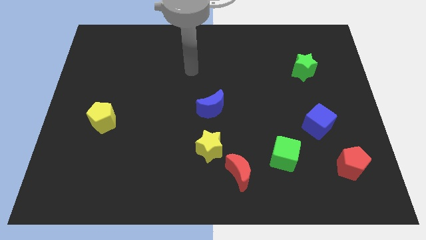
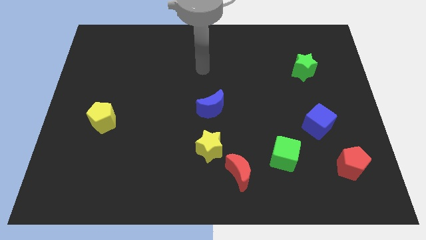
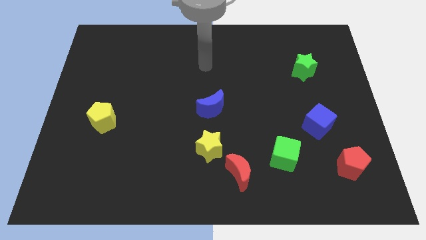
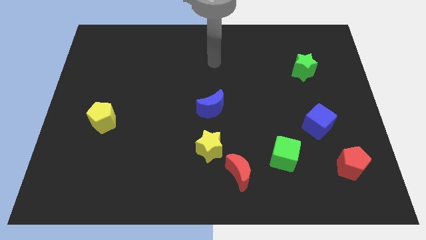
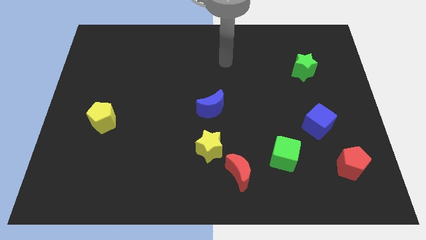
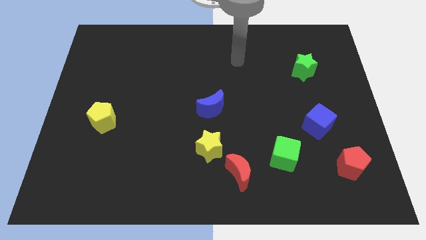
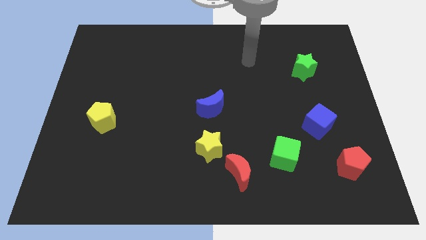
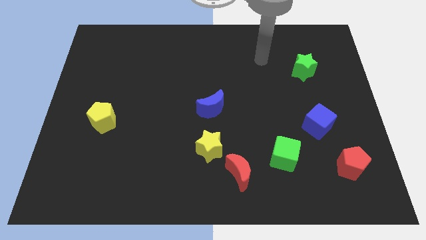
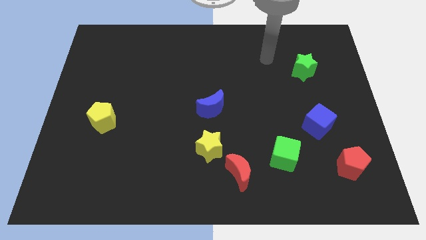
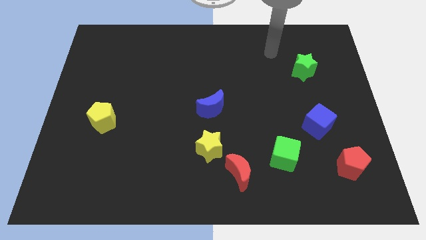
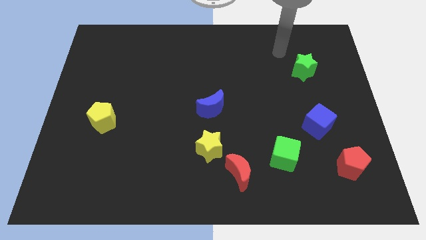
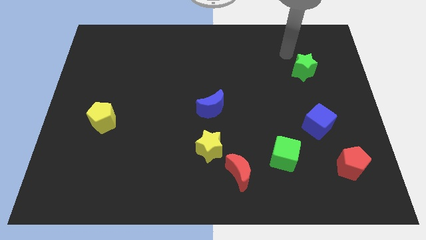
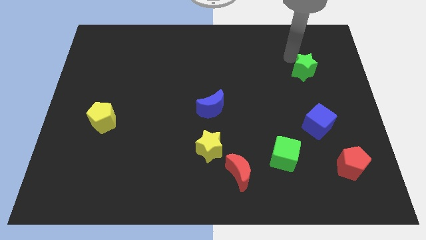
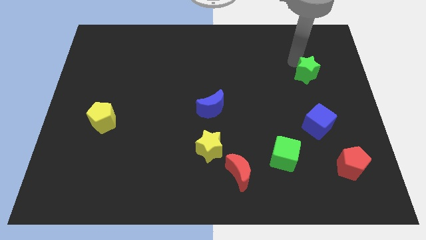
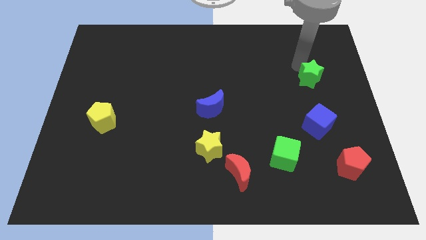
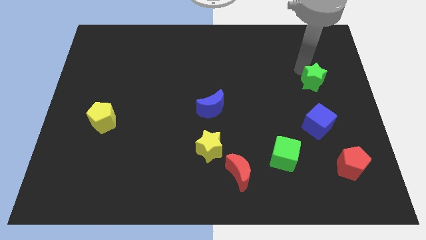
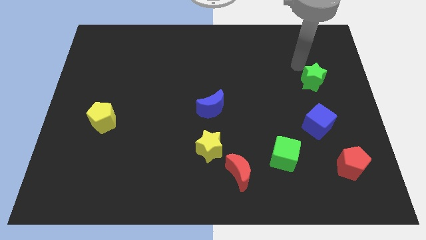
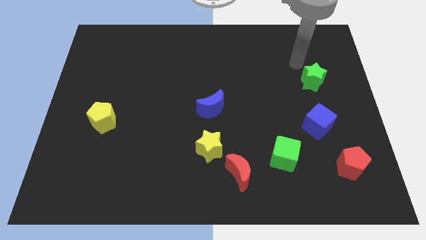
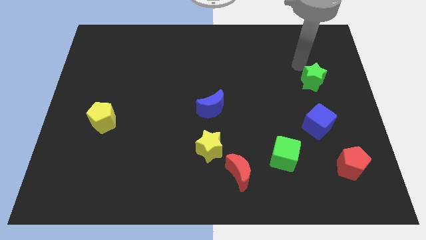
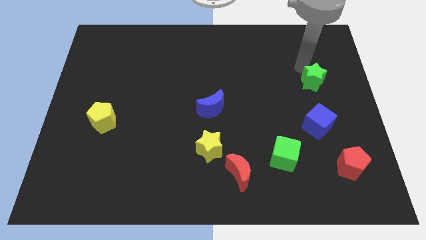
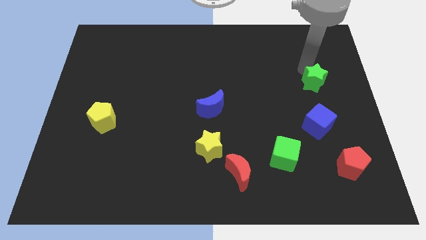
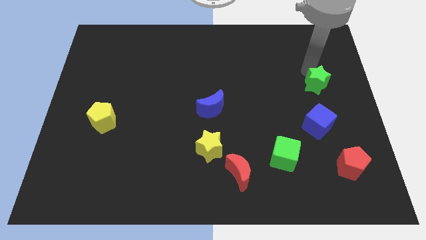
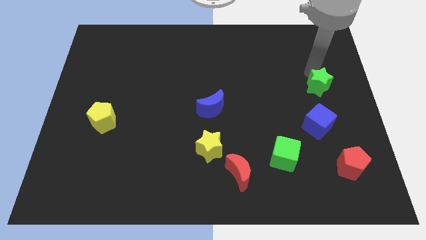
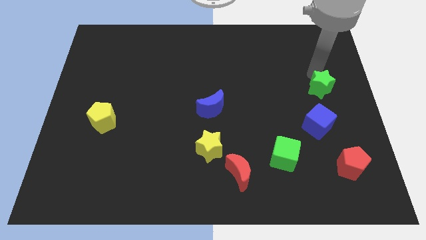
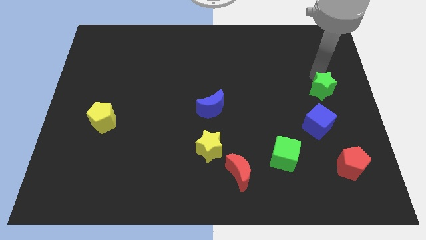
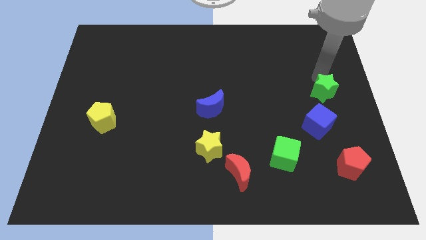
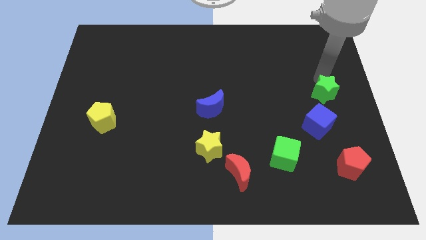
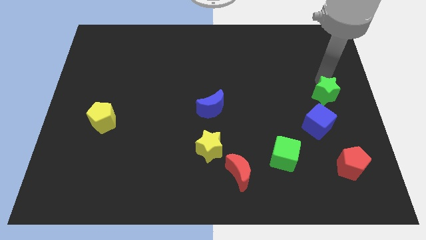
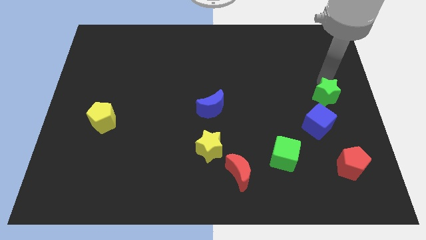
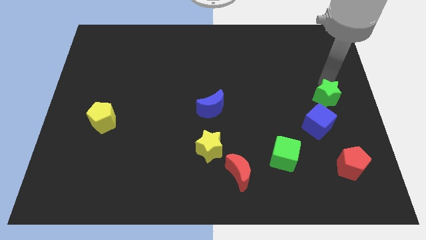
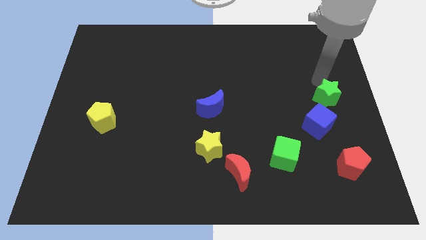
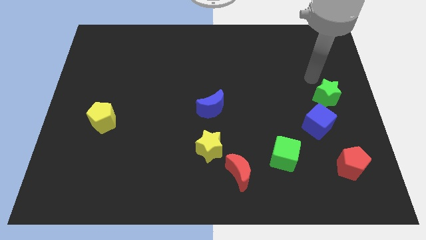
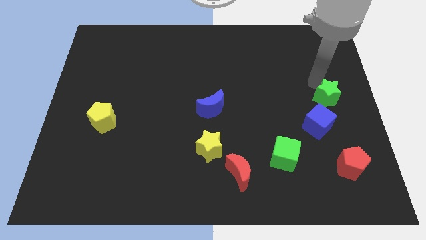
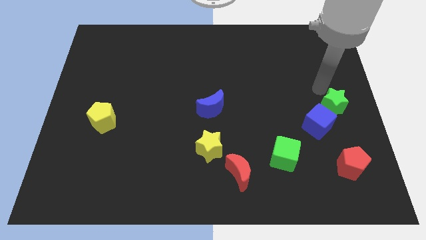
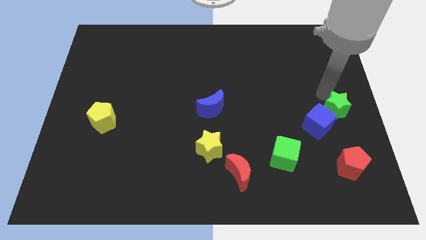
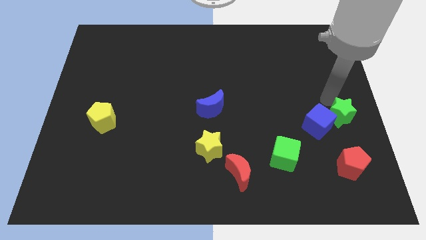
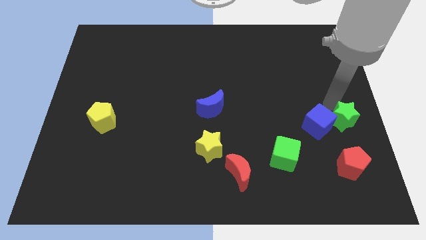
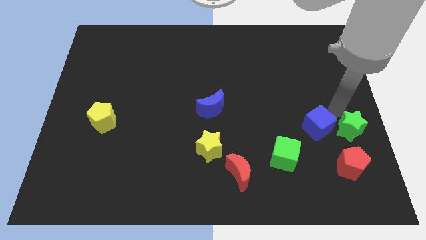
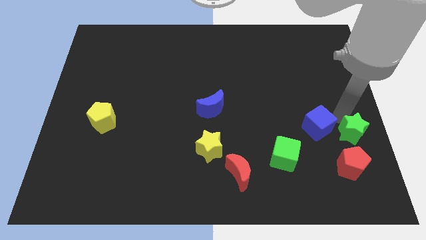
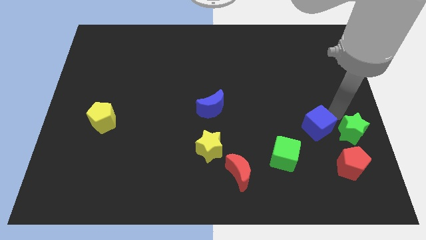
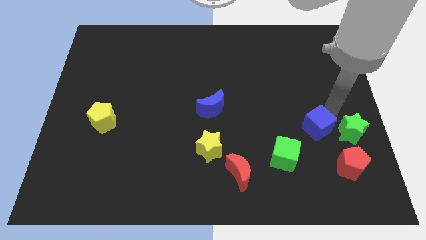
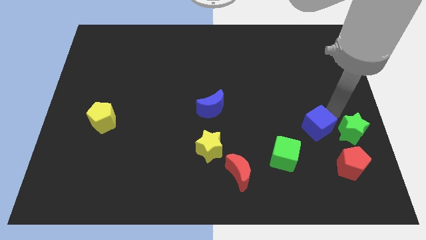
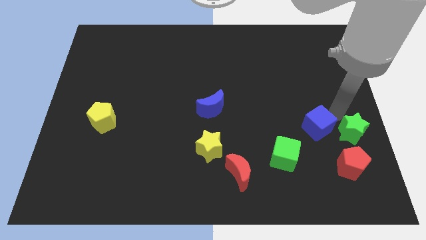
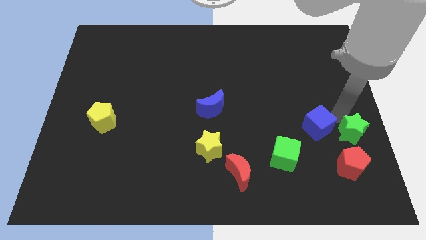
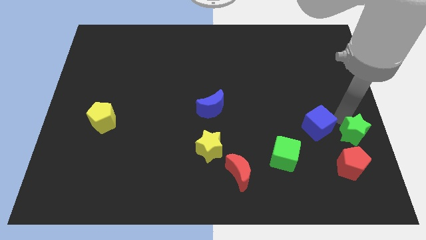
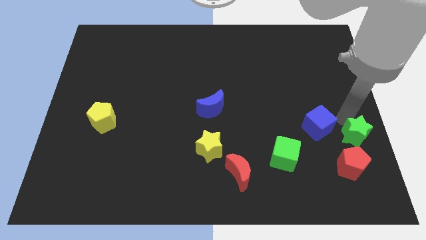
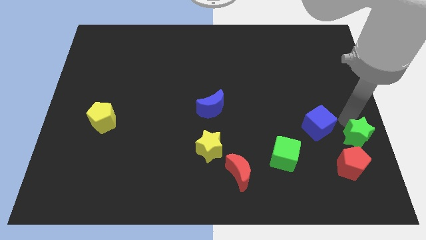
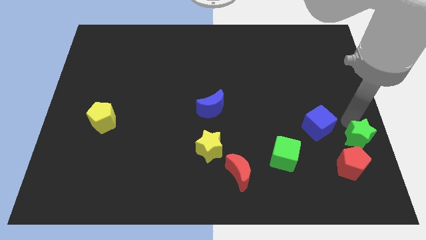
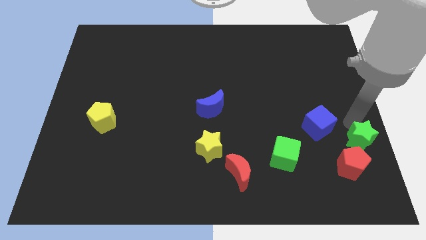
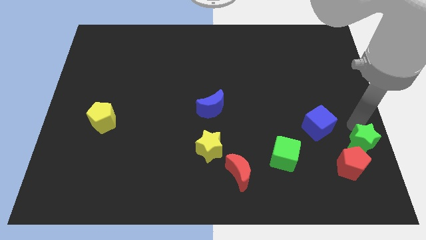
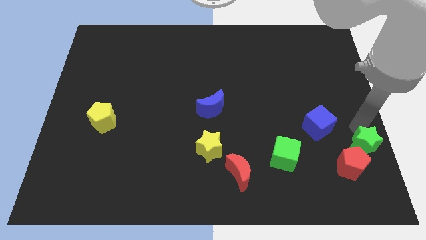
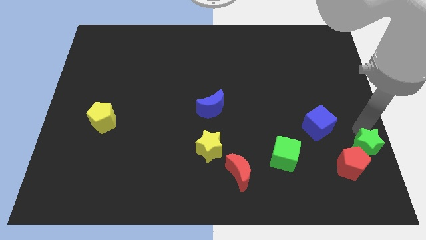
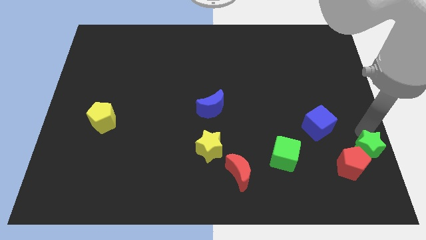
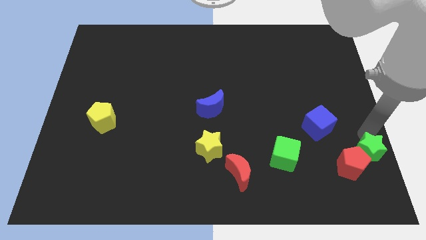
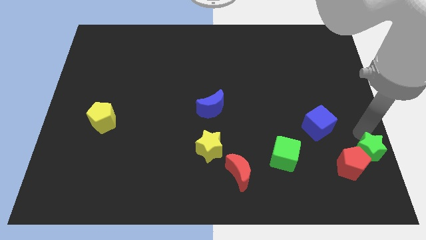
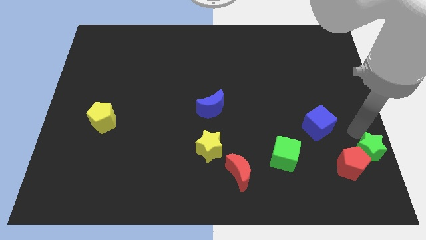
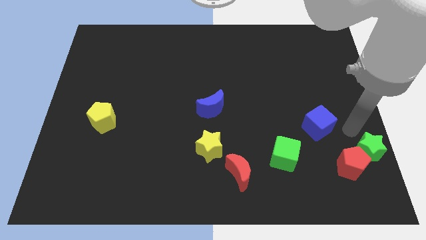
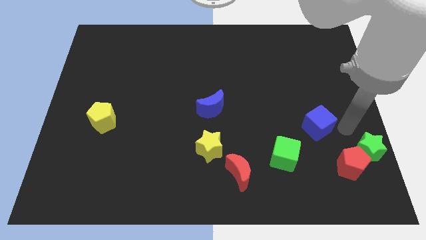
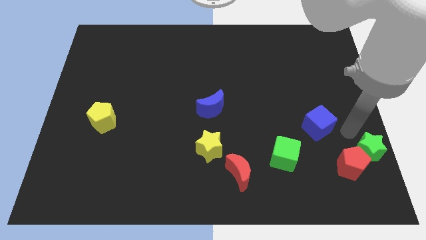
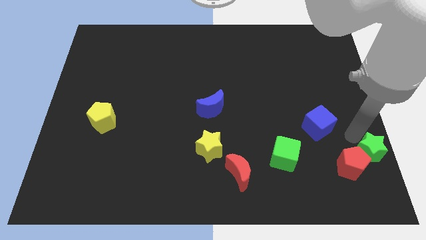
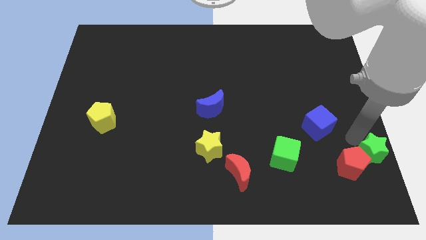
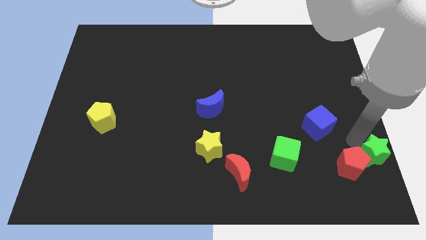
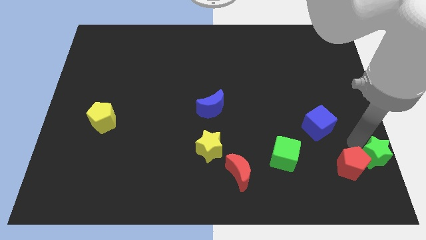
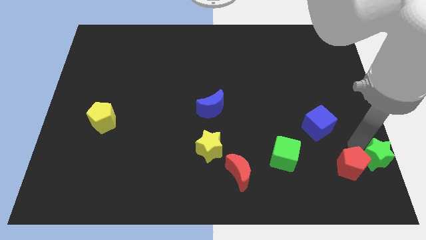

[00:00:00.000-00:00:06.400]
push the green star to the bottom right
